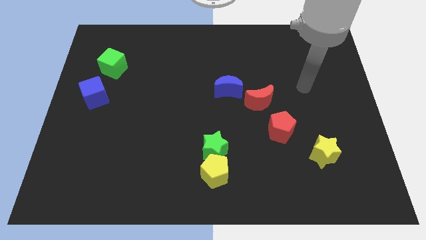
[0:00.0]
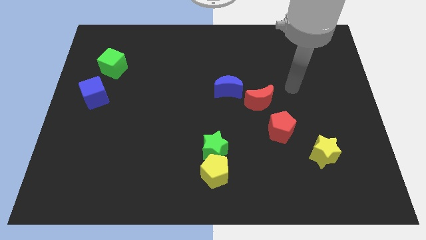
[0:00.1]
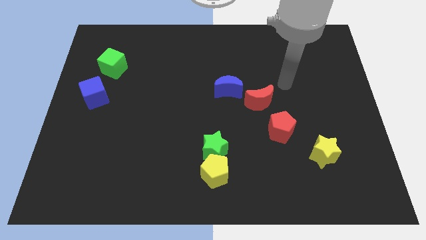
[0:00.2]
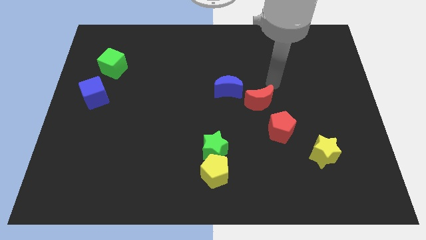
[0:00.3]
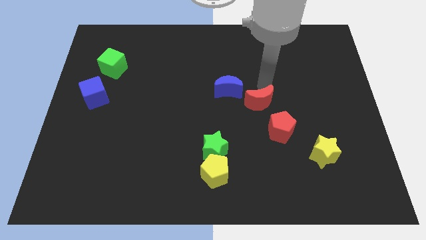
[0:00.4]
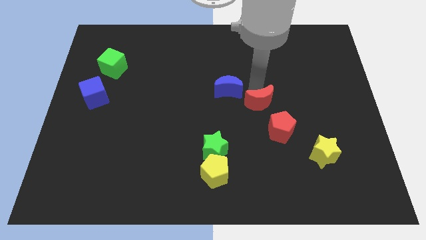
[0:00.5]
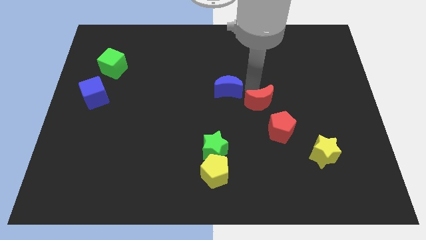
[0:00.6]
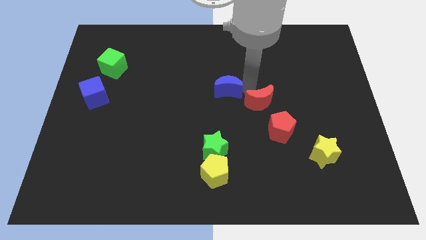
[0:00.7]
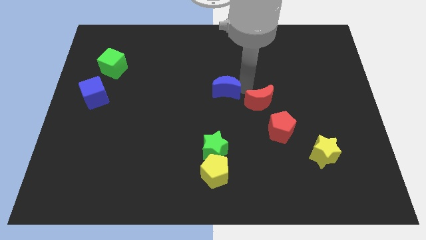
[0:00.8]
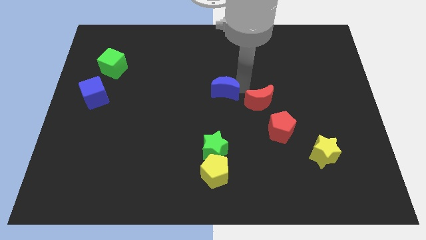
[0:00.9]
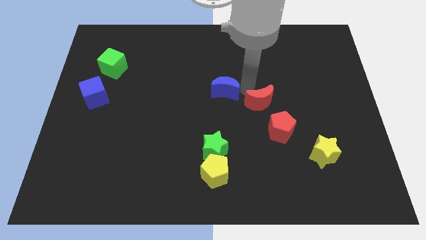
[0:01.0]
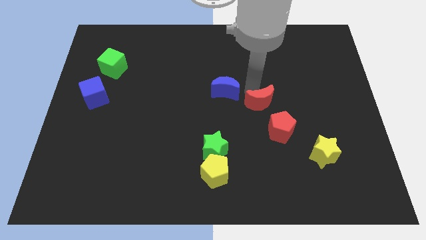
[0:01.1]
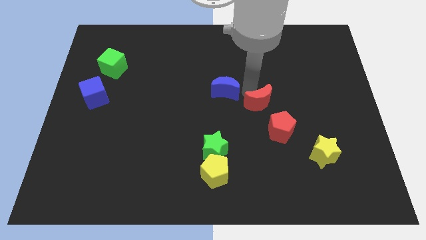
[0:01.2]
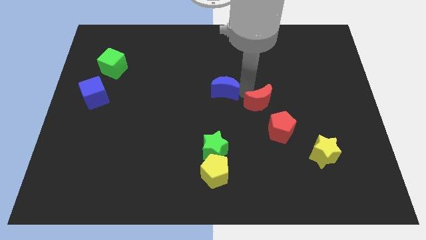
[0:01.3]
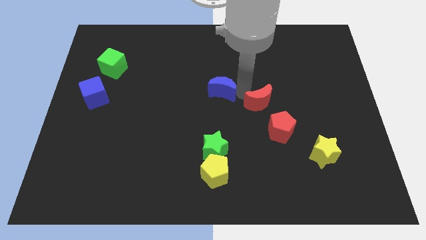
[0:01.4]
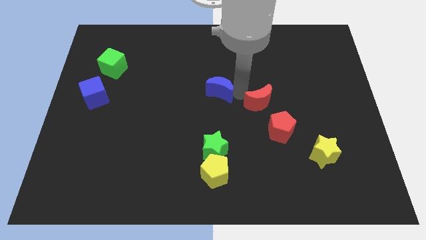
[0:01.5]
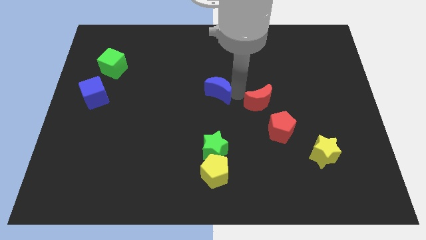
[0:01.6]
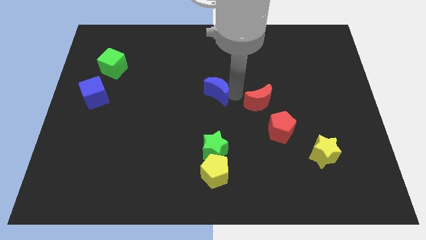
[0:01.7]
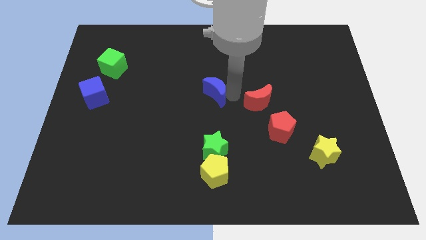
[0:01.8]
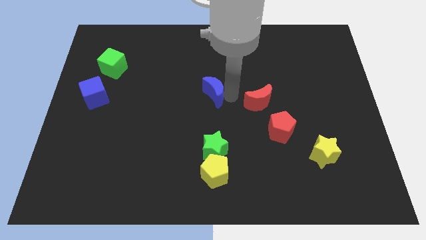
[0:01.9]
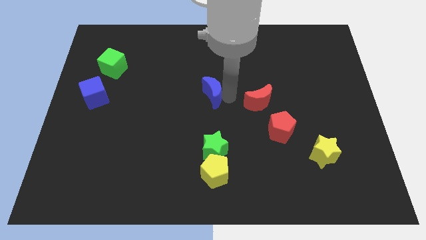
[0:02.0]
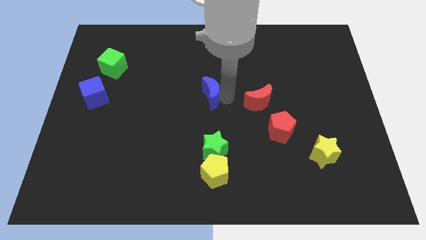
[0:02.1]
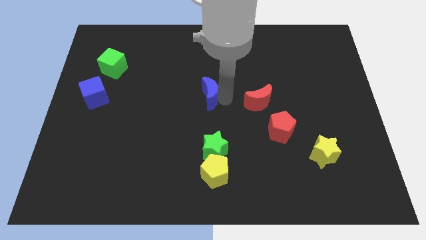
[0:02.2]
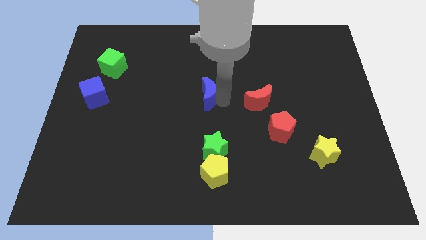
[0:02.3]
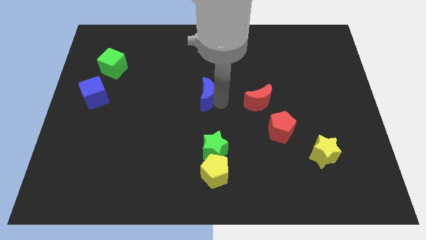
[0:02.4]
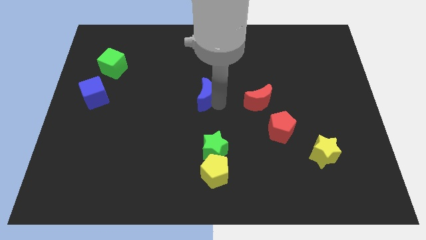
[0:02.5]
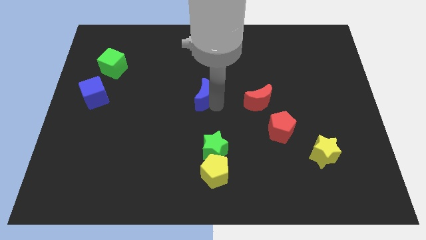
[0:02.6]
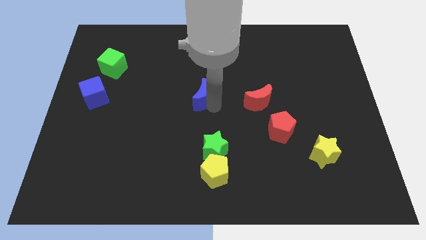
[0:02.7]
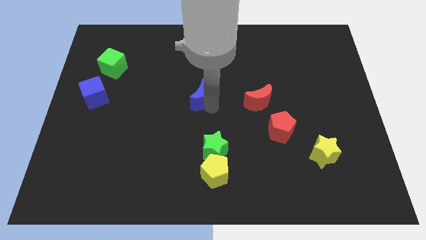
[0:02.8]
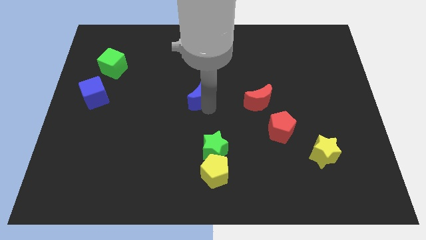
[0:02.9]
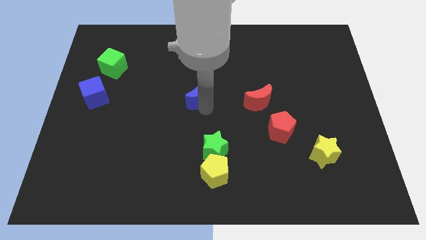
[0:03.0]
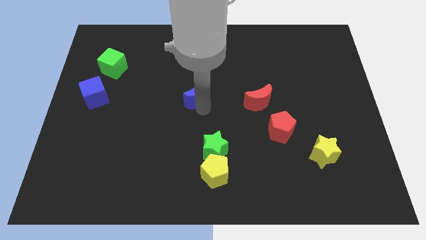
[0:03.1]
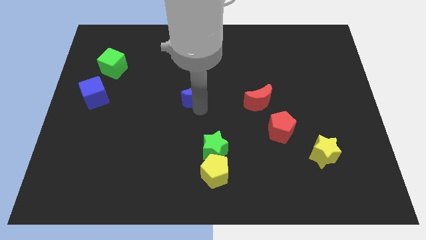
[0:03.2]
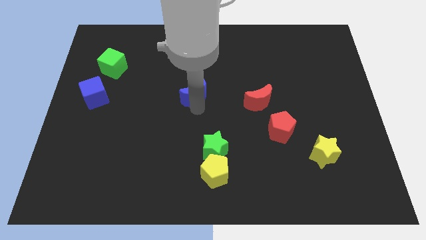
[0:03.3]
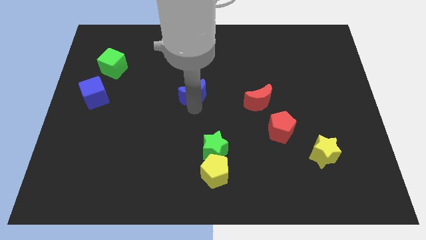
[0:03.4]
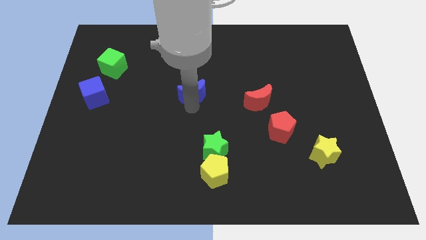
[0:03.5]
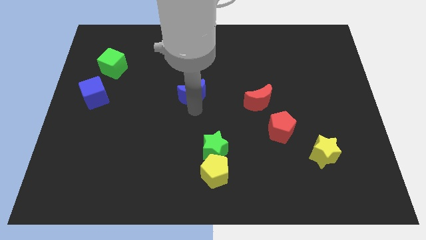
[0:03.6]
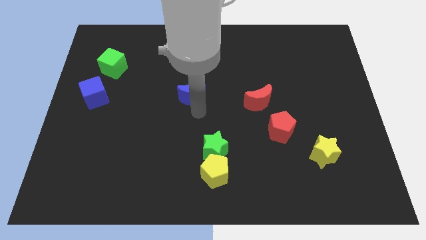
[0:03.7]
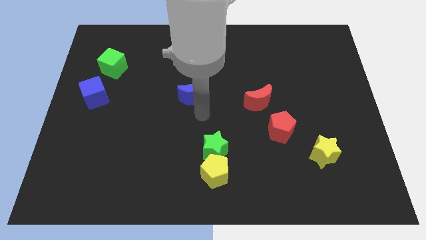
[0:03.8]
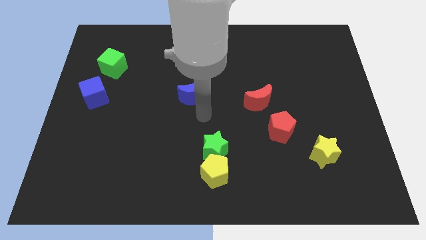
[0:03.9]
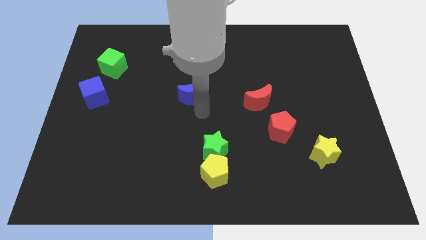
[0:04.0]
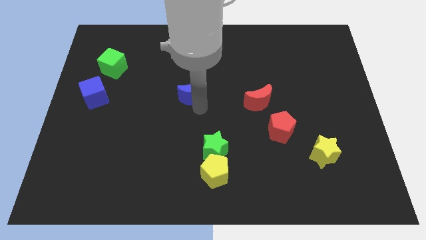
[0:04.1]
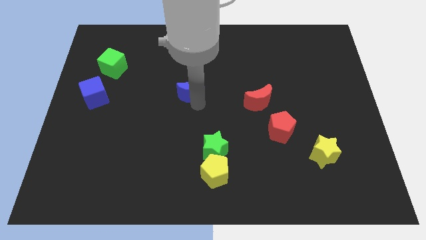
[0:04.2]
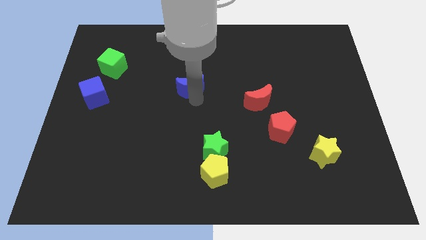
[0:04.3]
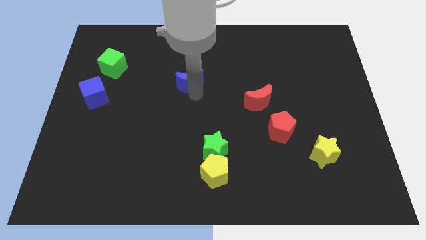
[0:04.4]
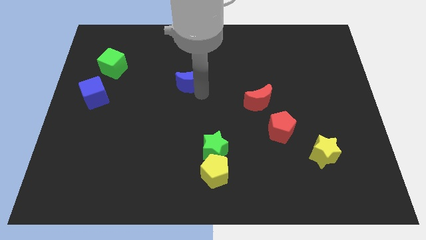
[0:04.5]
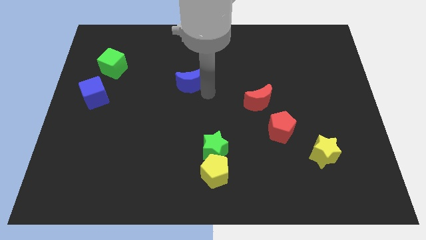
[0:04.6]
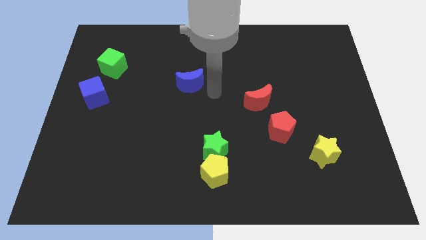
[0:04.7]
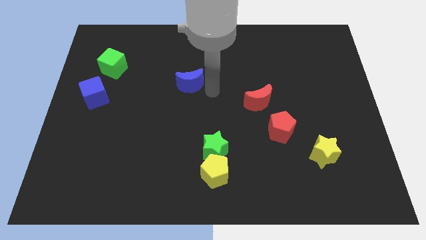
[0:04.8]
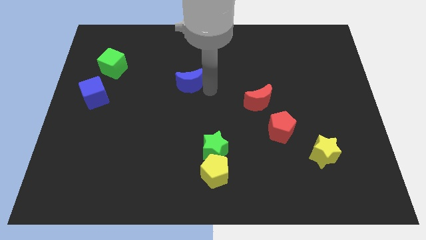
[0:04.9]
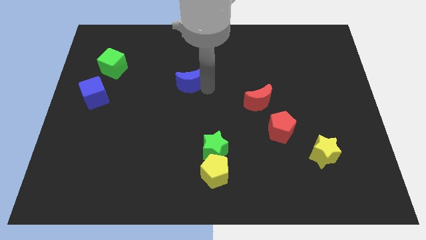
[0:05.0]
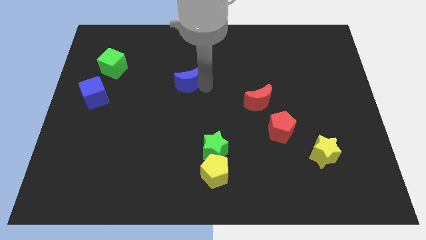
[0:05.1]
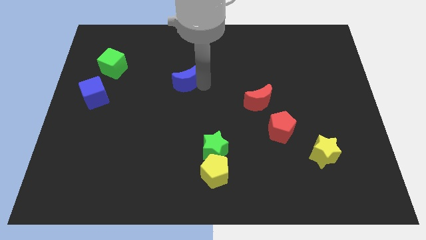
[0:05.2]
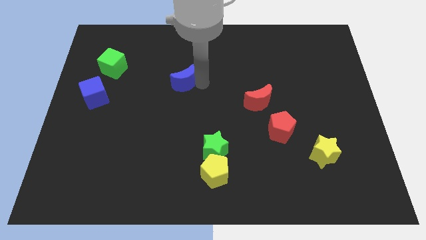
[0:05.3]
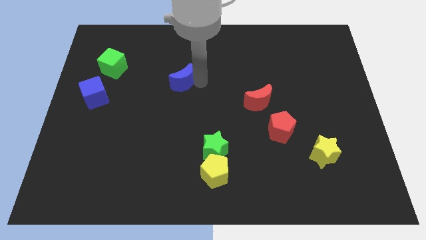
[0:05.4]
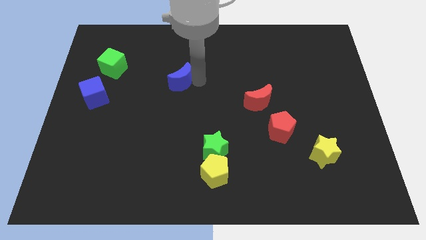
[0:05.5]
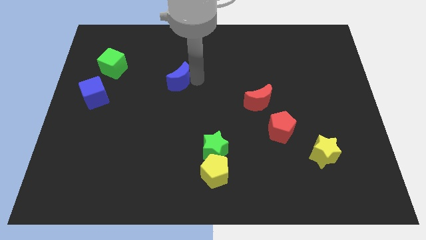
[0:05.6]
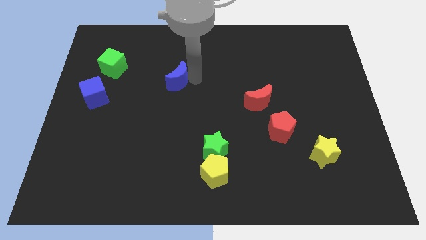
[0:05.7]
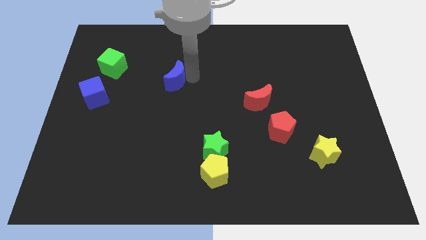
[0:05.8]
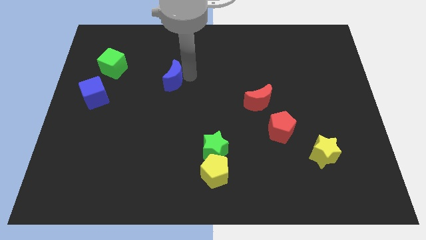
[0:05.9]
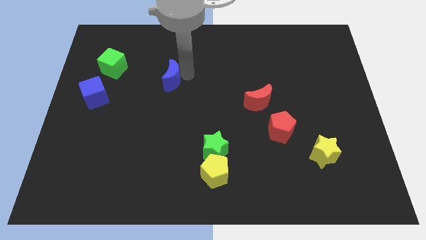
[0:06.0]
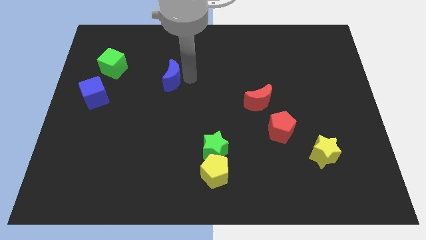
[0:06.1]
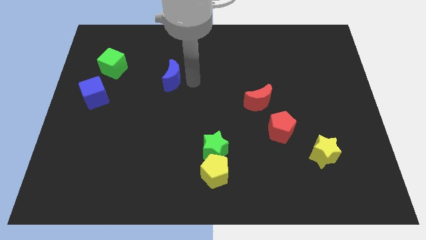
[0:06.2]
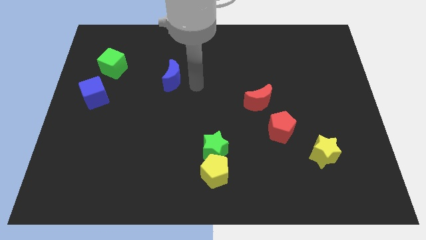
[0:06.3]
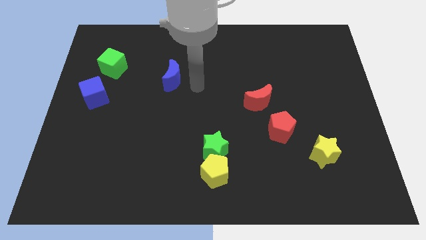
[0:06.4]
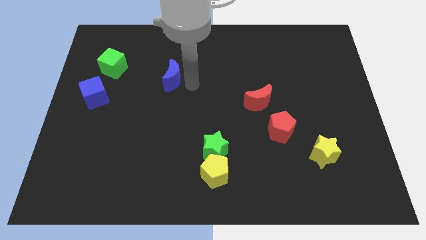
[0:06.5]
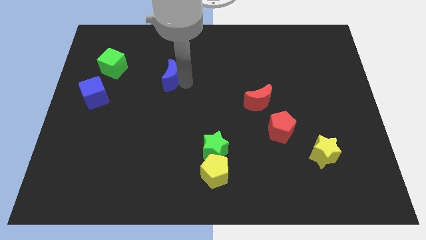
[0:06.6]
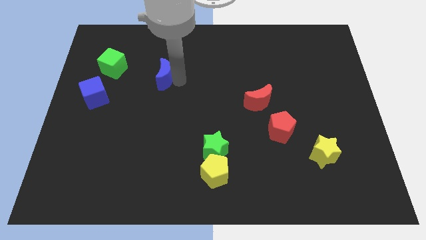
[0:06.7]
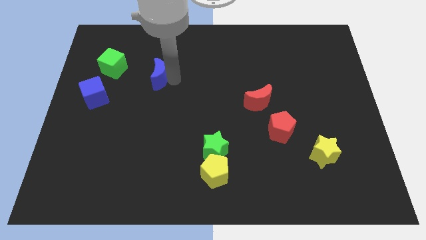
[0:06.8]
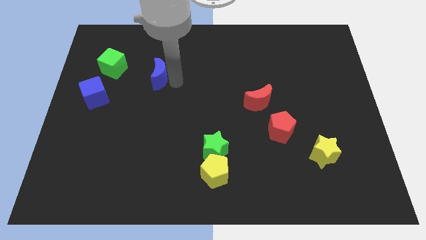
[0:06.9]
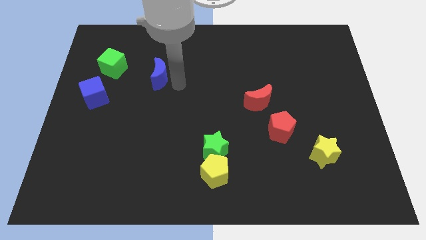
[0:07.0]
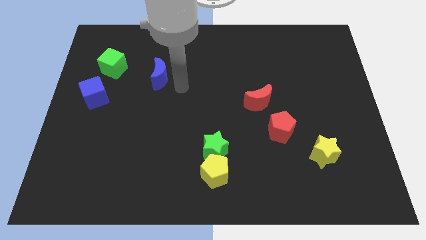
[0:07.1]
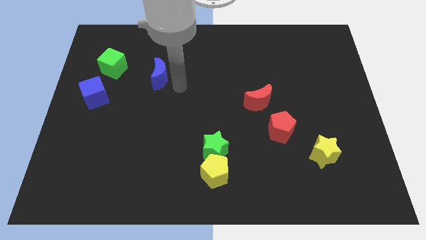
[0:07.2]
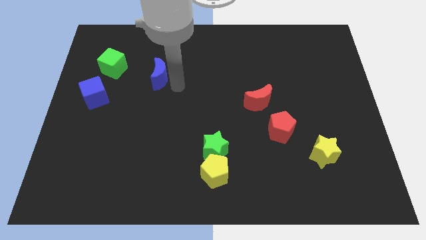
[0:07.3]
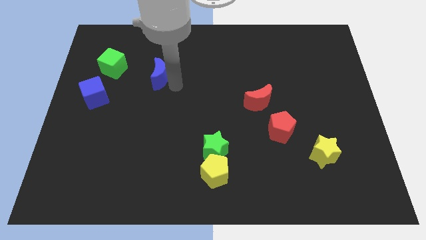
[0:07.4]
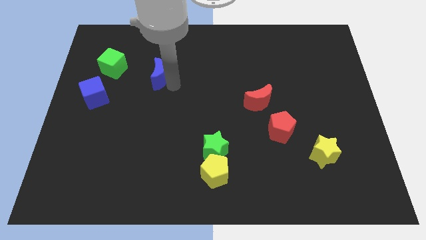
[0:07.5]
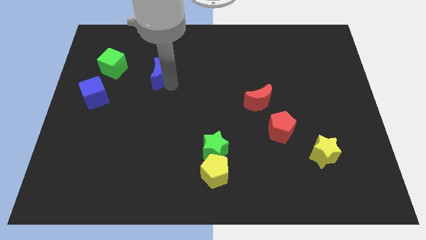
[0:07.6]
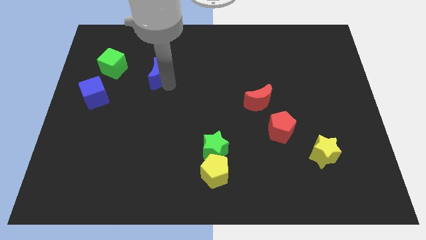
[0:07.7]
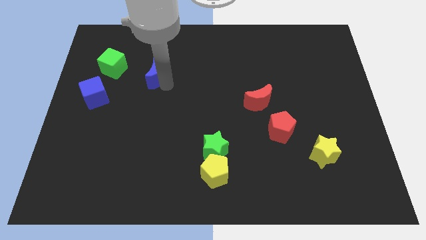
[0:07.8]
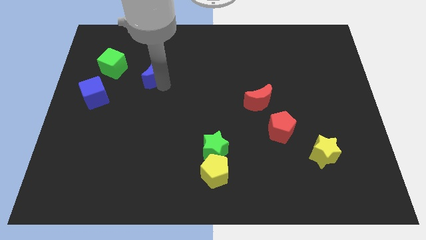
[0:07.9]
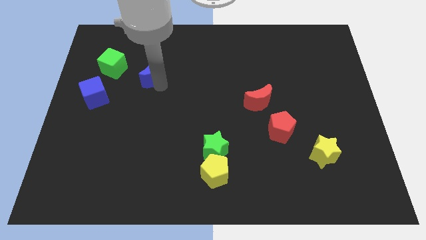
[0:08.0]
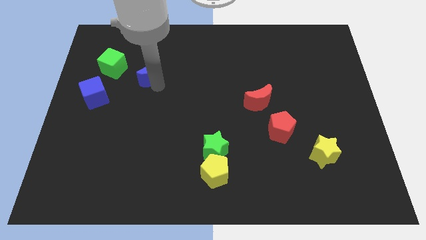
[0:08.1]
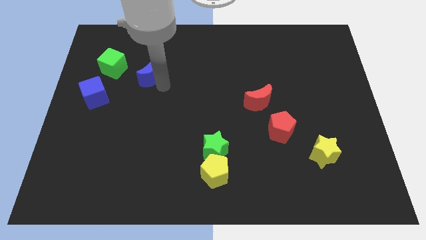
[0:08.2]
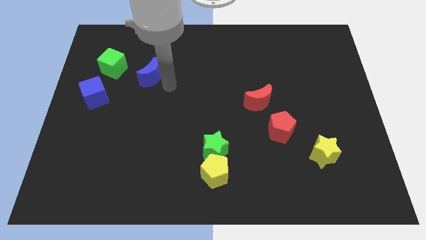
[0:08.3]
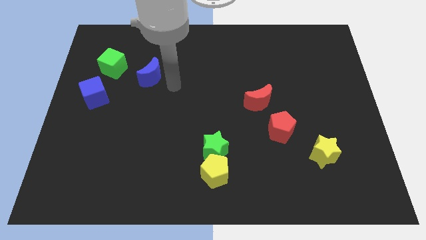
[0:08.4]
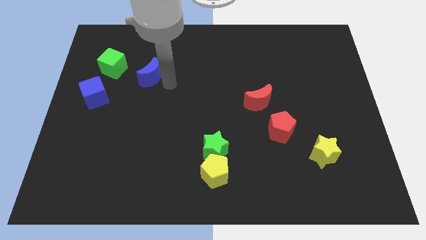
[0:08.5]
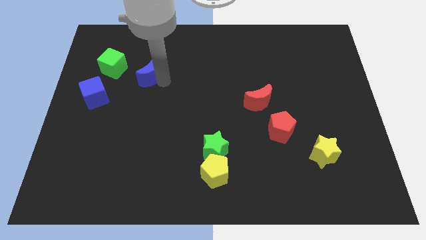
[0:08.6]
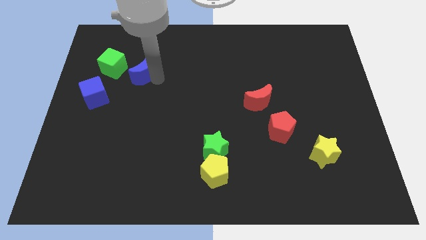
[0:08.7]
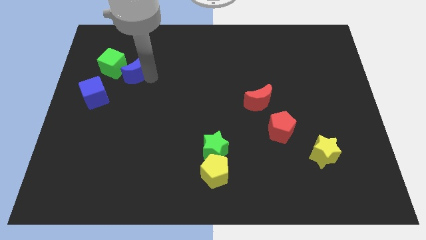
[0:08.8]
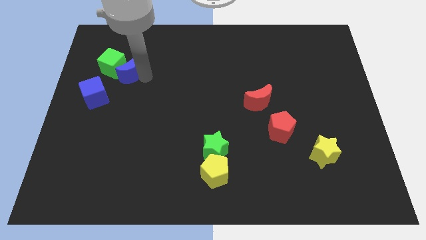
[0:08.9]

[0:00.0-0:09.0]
move the blue moon close to the green cube
